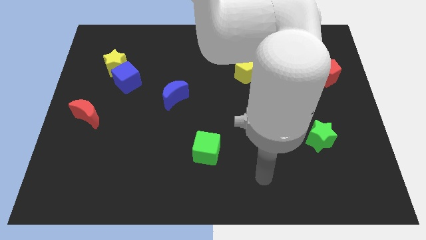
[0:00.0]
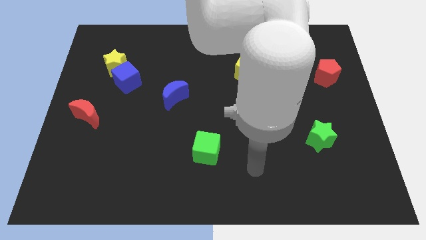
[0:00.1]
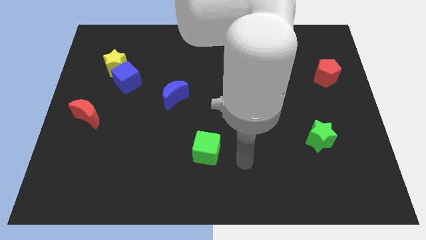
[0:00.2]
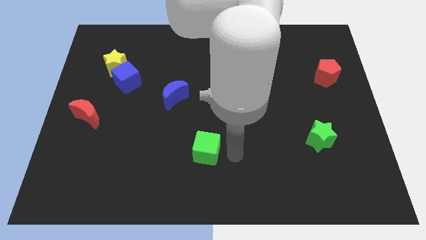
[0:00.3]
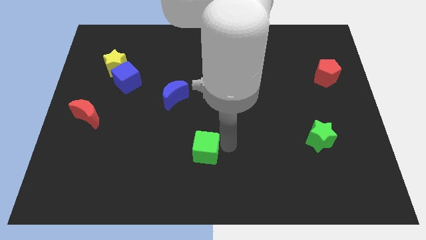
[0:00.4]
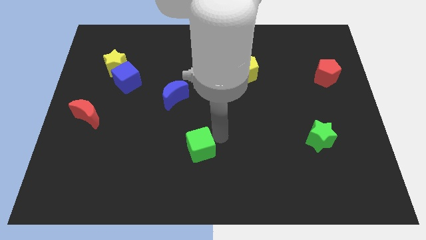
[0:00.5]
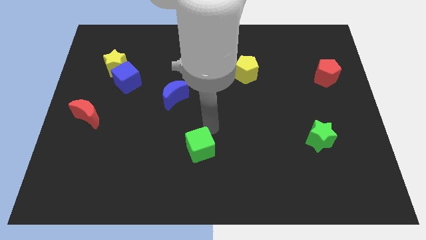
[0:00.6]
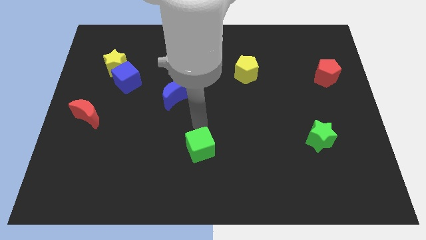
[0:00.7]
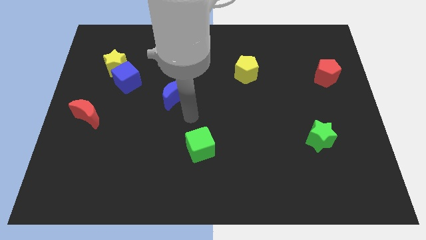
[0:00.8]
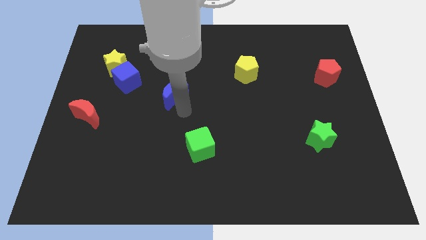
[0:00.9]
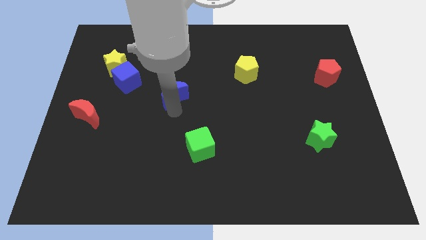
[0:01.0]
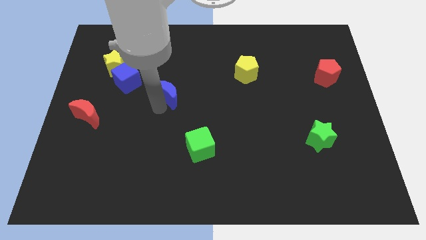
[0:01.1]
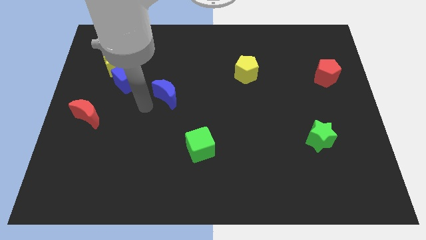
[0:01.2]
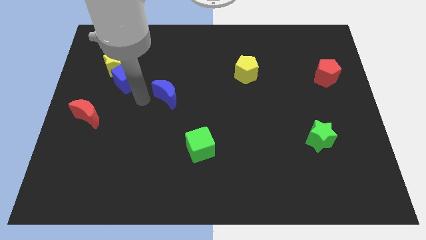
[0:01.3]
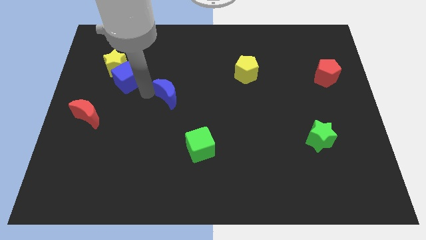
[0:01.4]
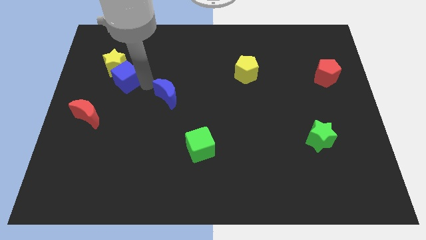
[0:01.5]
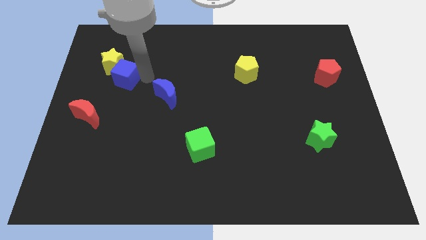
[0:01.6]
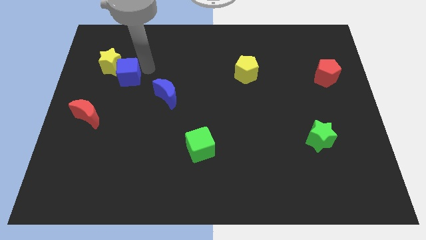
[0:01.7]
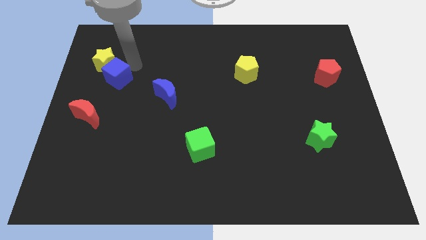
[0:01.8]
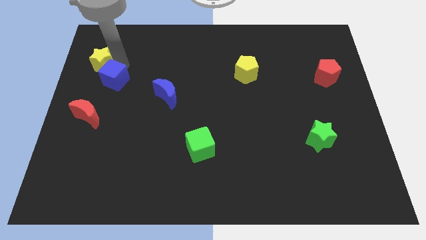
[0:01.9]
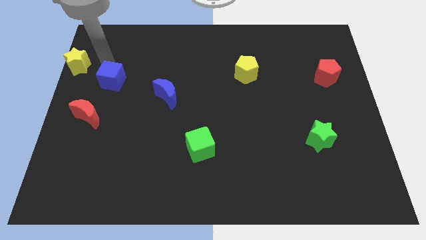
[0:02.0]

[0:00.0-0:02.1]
move the blue cube away from the yellow star

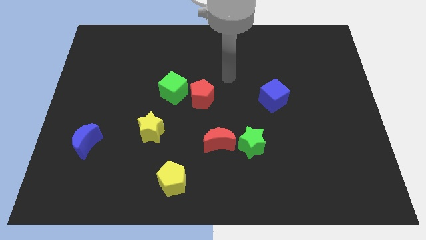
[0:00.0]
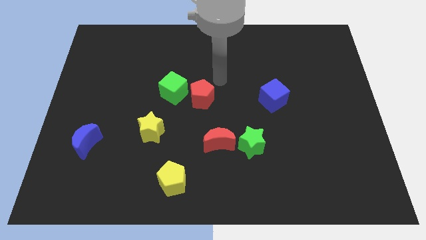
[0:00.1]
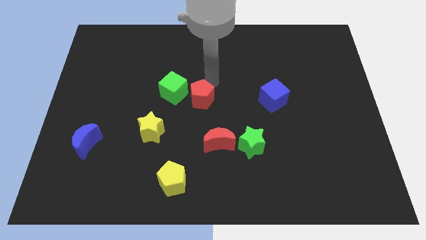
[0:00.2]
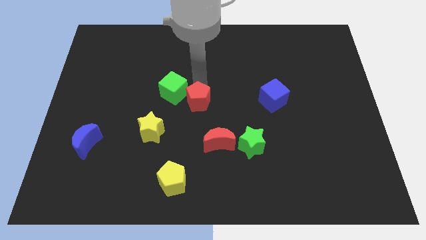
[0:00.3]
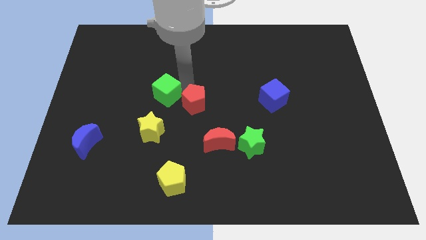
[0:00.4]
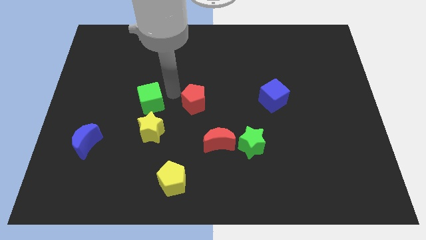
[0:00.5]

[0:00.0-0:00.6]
move the red pentagon away from the green cube

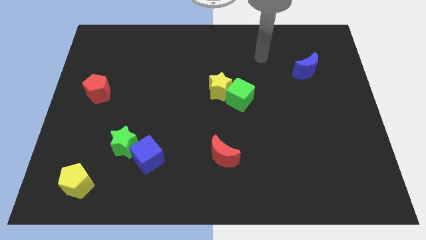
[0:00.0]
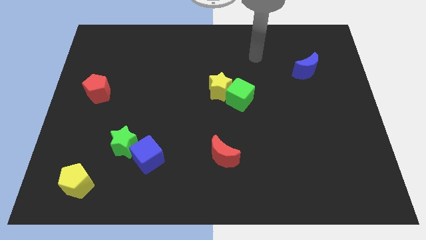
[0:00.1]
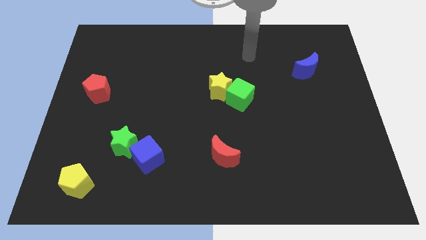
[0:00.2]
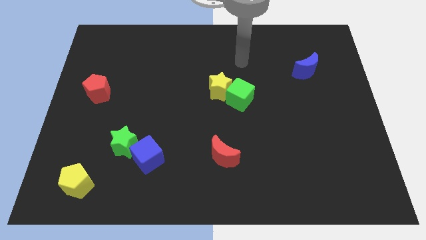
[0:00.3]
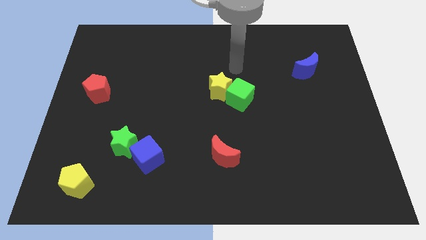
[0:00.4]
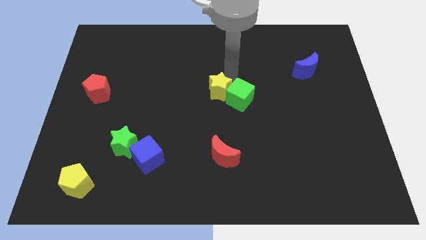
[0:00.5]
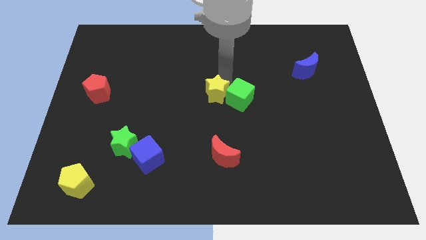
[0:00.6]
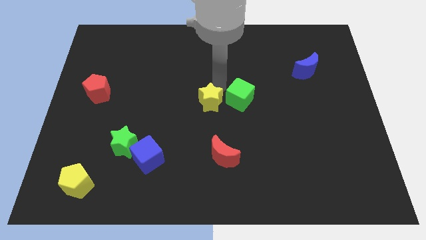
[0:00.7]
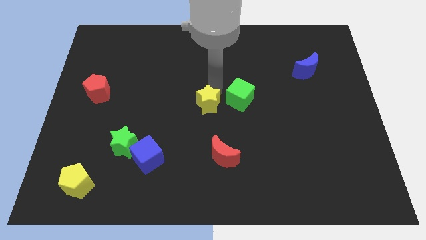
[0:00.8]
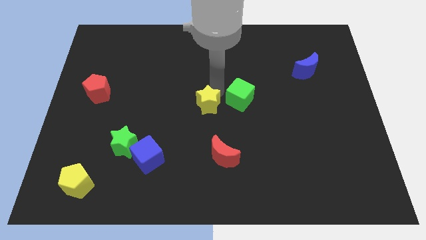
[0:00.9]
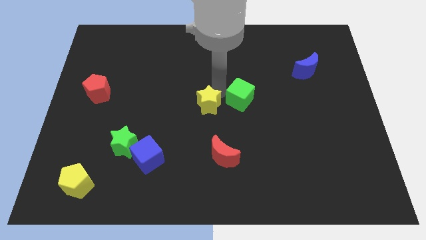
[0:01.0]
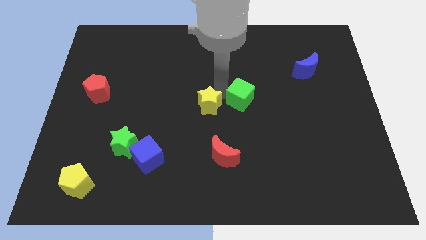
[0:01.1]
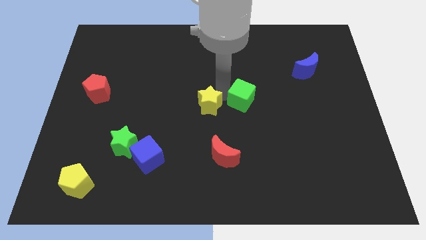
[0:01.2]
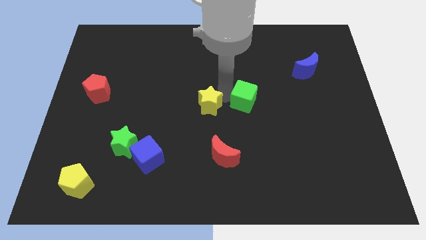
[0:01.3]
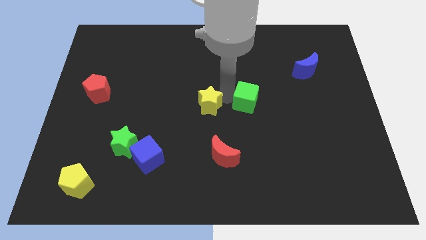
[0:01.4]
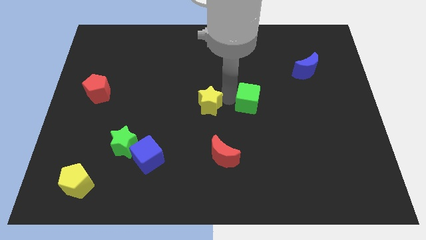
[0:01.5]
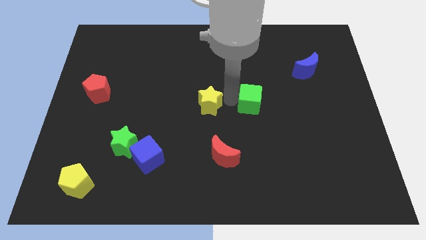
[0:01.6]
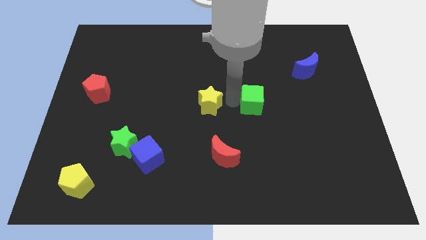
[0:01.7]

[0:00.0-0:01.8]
move the green cube away from the yellow star

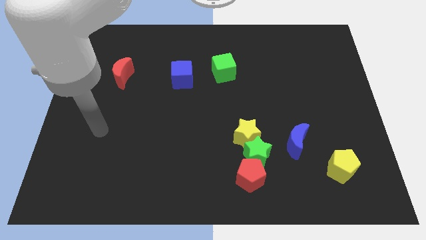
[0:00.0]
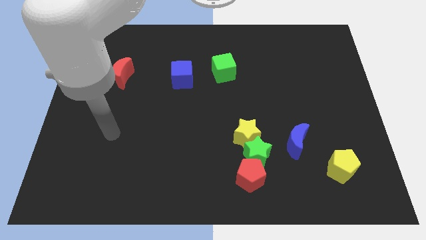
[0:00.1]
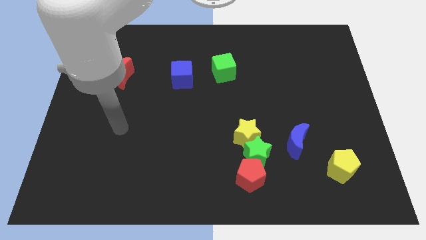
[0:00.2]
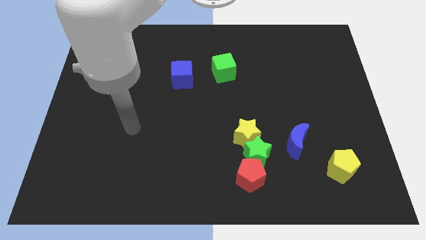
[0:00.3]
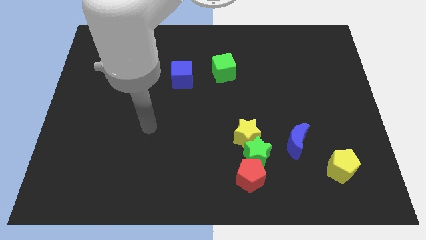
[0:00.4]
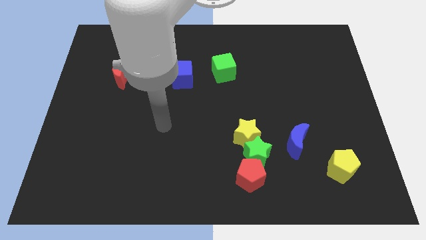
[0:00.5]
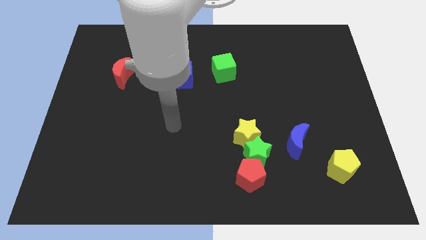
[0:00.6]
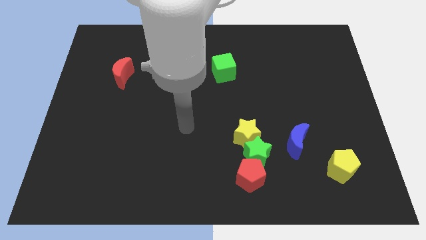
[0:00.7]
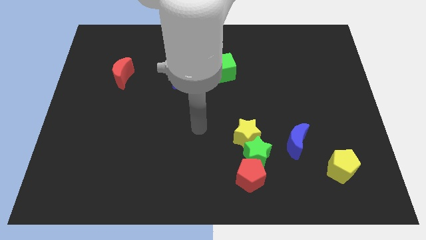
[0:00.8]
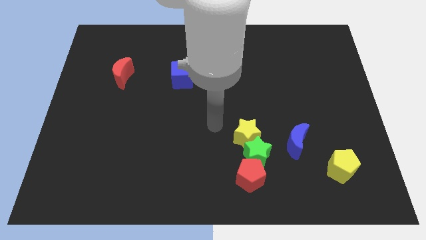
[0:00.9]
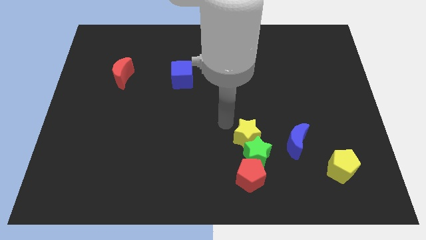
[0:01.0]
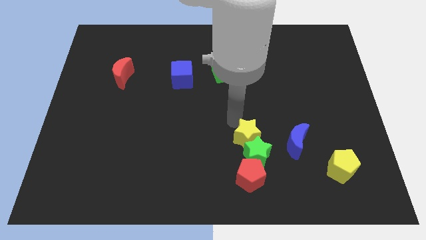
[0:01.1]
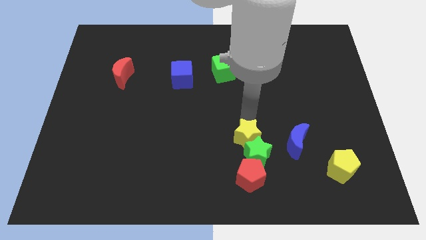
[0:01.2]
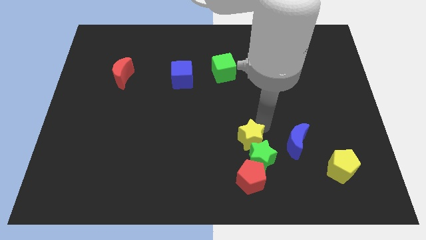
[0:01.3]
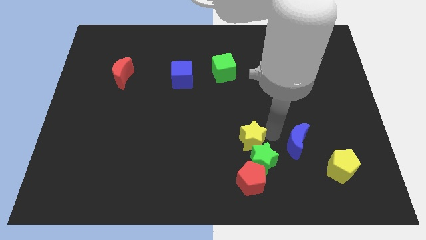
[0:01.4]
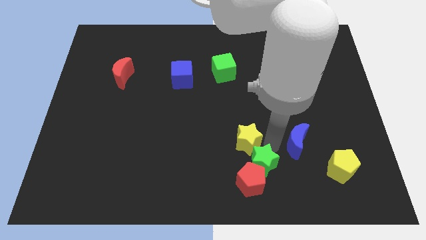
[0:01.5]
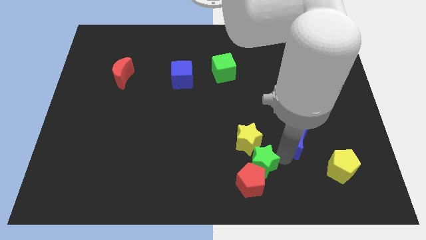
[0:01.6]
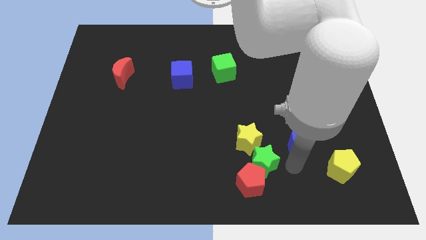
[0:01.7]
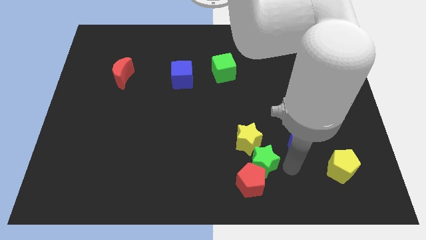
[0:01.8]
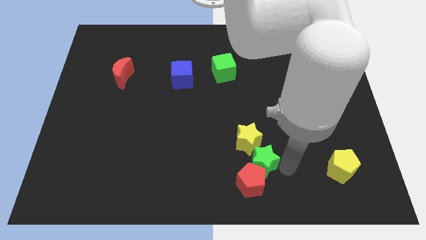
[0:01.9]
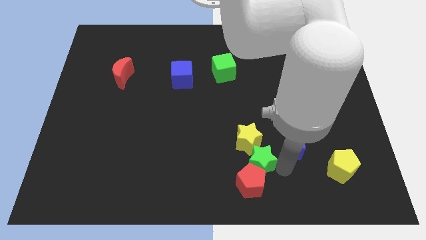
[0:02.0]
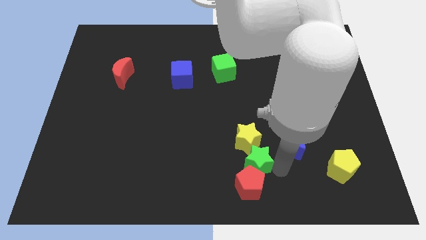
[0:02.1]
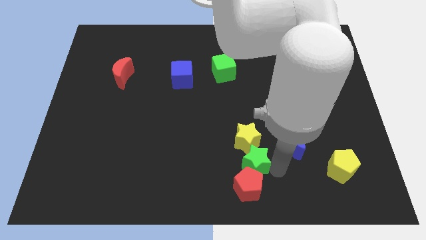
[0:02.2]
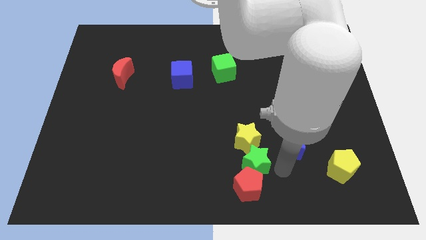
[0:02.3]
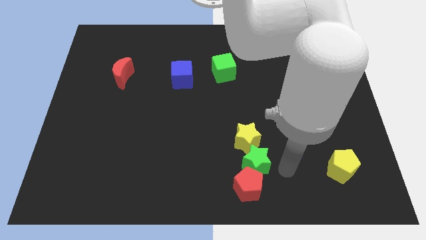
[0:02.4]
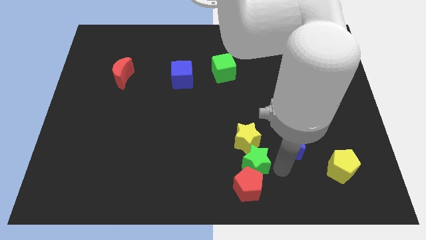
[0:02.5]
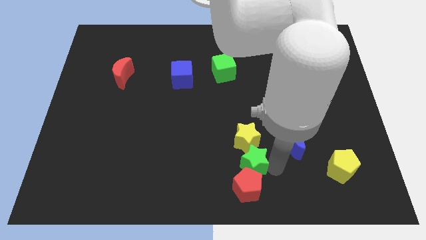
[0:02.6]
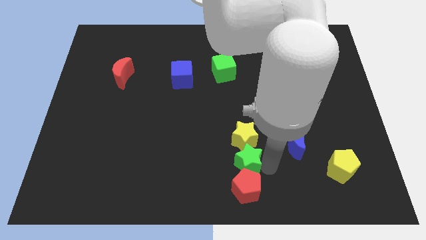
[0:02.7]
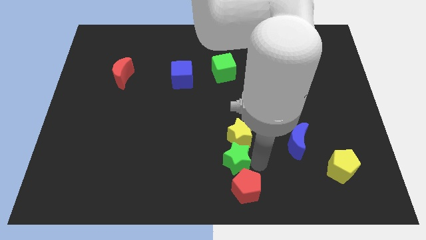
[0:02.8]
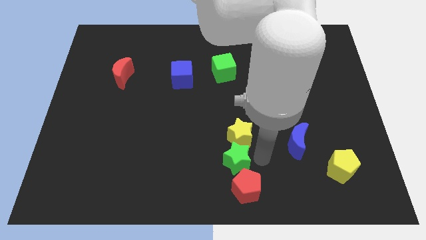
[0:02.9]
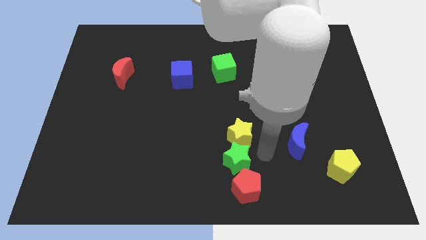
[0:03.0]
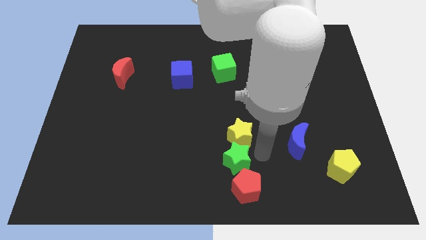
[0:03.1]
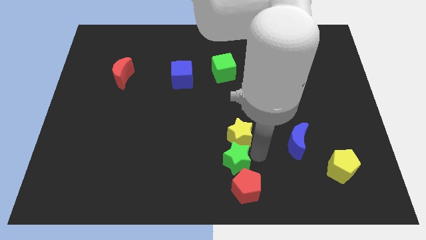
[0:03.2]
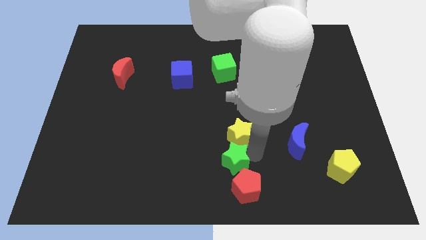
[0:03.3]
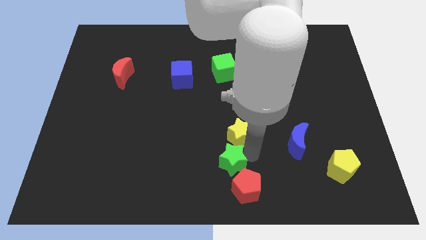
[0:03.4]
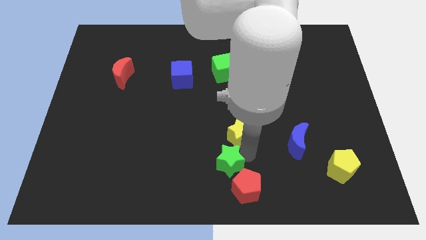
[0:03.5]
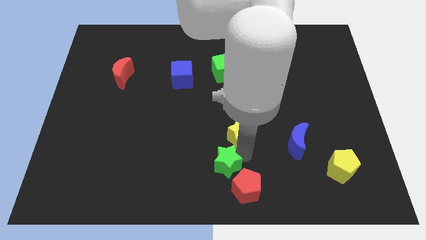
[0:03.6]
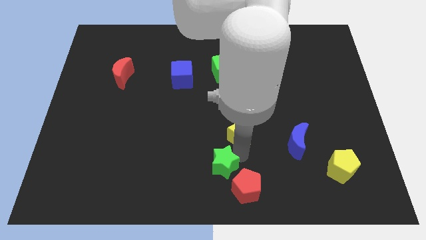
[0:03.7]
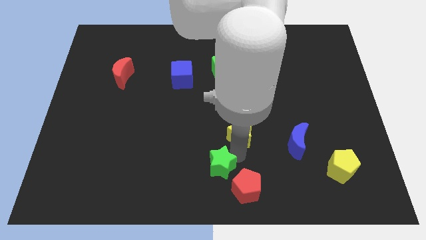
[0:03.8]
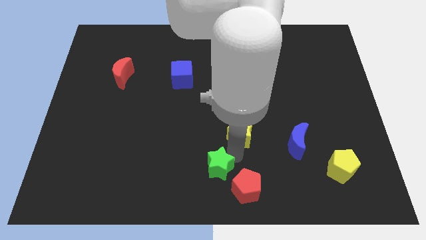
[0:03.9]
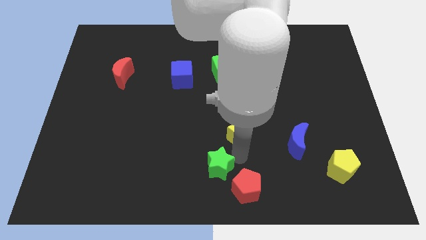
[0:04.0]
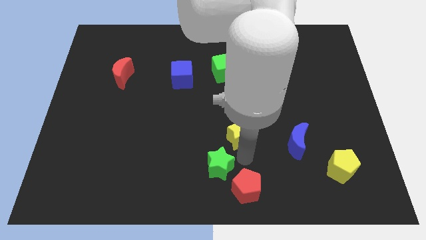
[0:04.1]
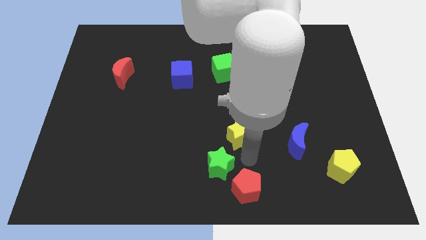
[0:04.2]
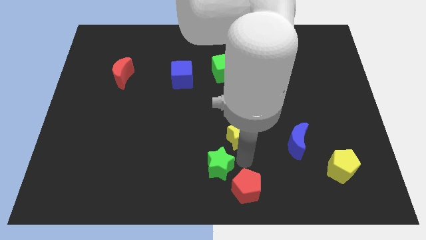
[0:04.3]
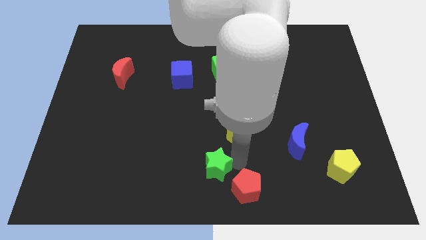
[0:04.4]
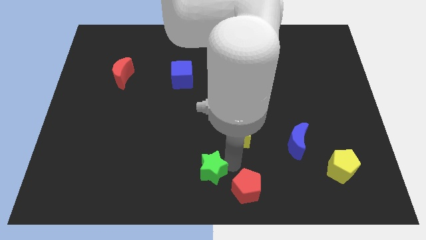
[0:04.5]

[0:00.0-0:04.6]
pull the green star apart from the red pentagon, yellow star, and blue moon

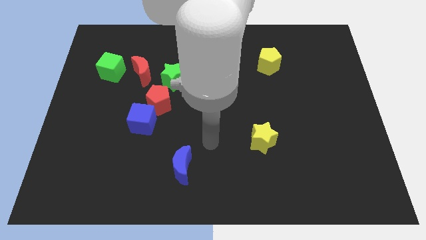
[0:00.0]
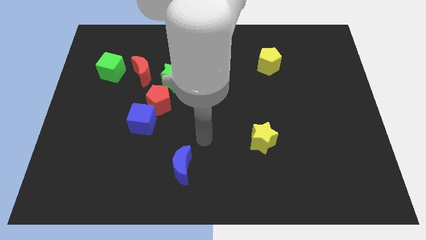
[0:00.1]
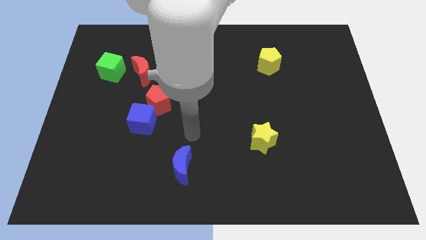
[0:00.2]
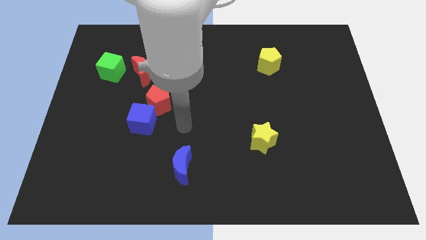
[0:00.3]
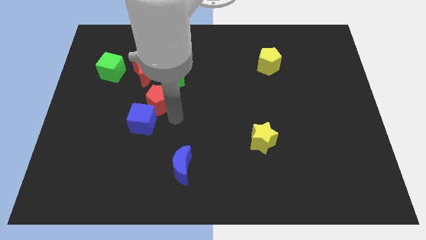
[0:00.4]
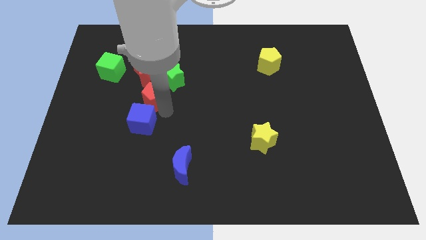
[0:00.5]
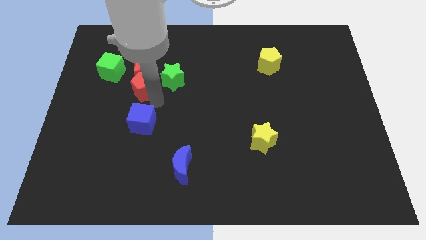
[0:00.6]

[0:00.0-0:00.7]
move the blue cube away from the red pentagon
